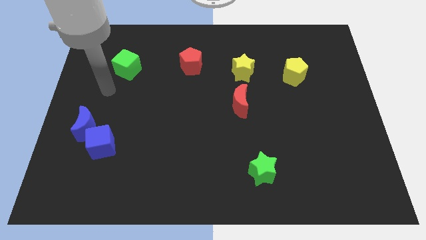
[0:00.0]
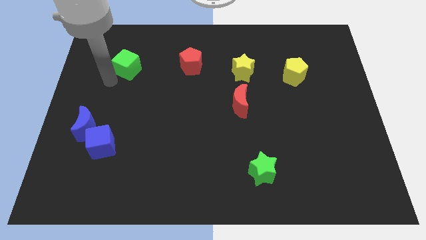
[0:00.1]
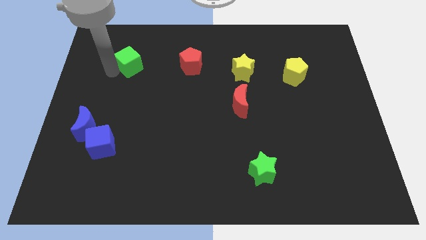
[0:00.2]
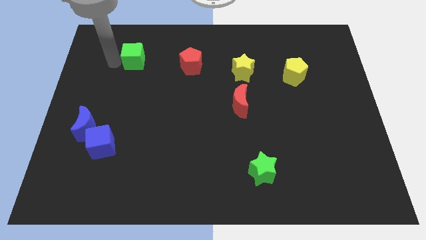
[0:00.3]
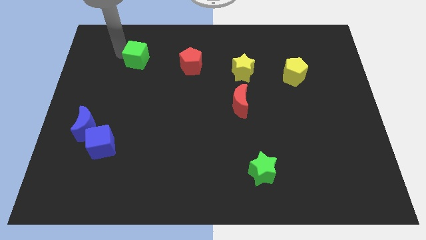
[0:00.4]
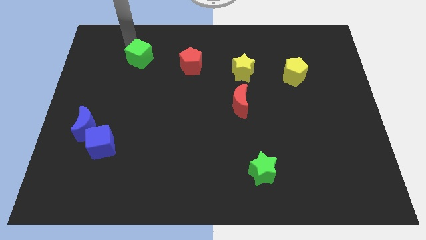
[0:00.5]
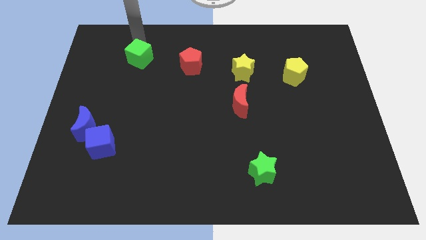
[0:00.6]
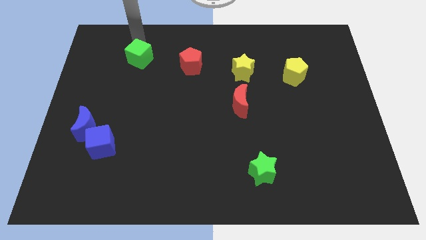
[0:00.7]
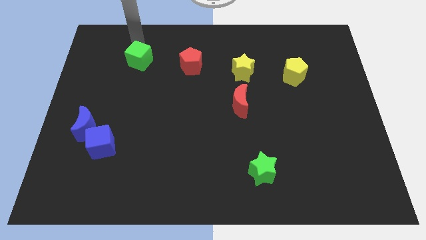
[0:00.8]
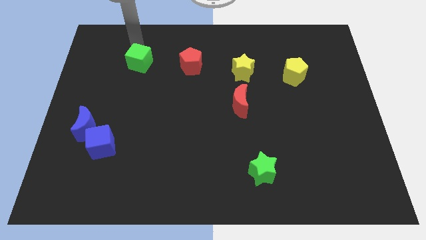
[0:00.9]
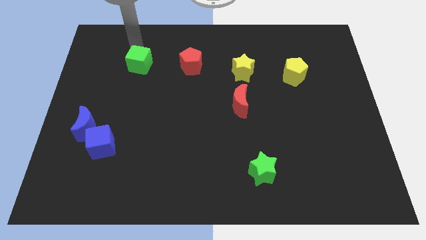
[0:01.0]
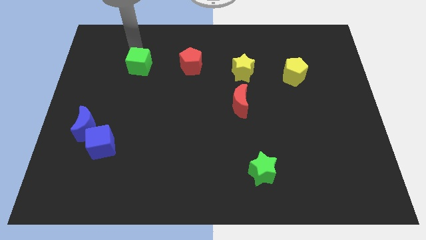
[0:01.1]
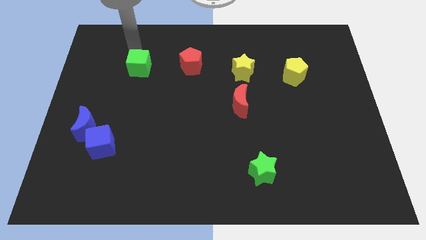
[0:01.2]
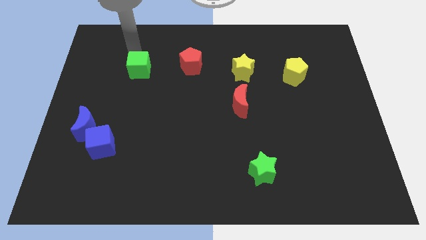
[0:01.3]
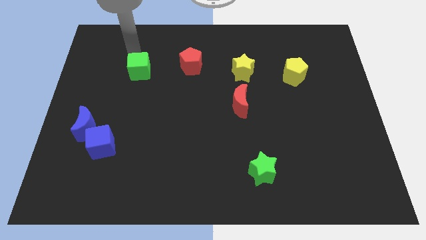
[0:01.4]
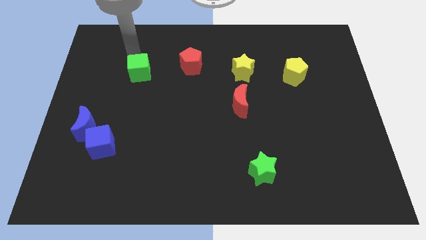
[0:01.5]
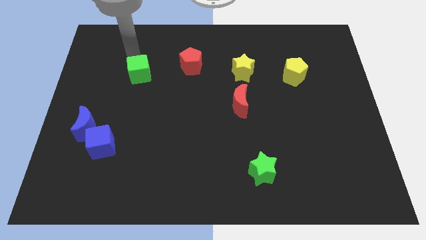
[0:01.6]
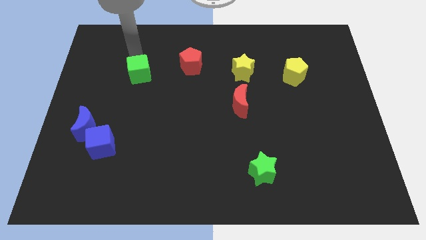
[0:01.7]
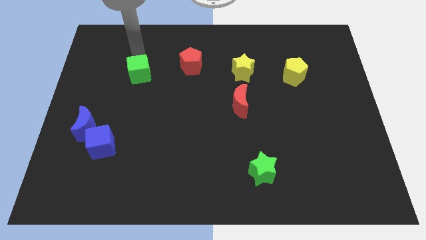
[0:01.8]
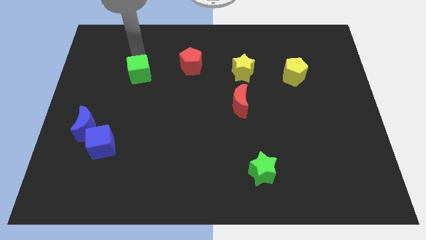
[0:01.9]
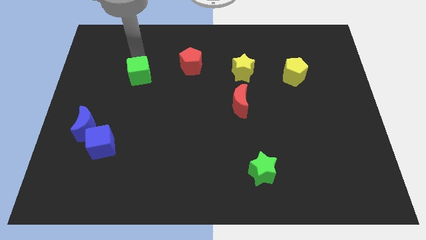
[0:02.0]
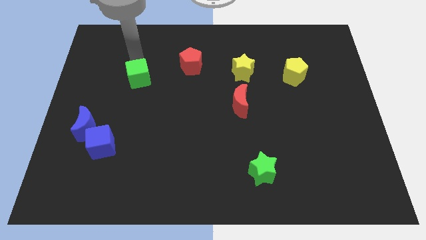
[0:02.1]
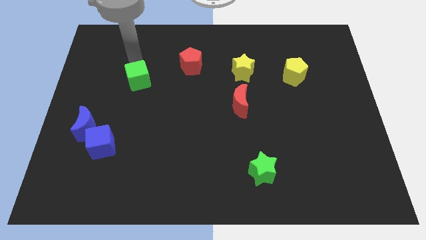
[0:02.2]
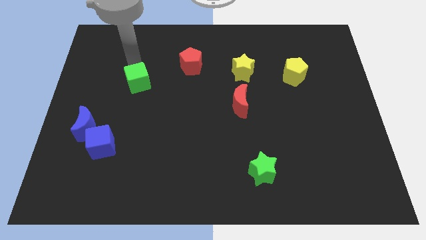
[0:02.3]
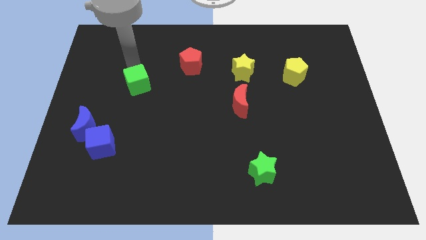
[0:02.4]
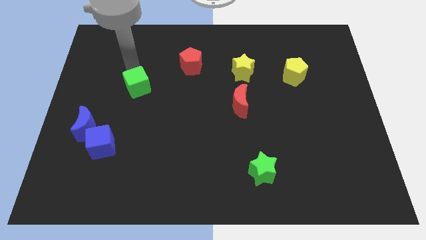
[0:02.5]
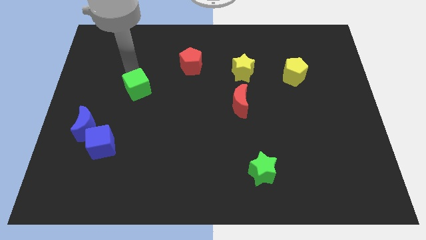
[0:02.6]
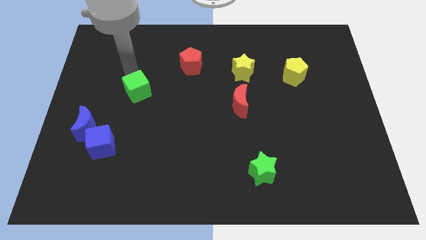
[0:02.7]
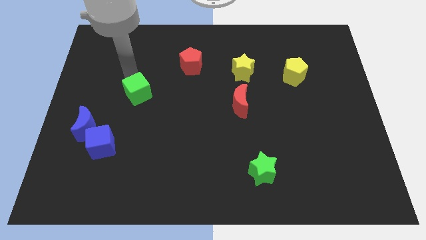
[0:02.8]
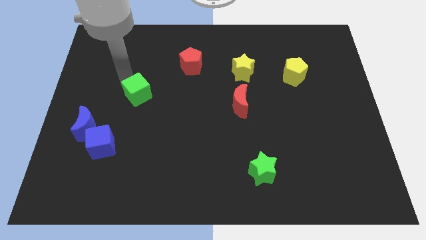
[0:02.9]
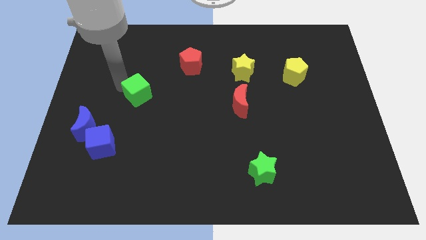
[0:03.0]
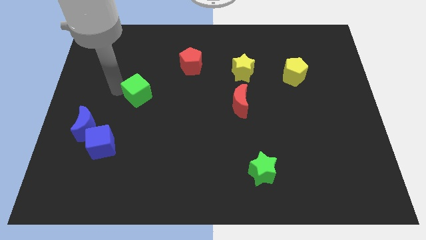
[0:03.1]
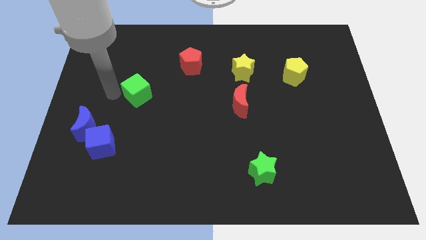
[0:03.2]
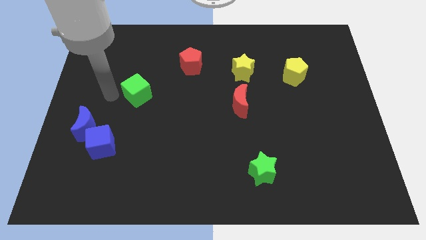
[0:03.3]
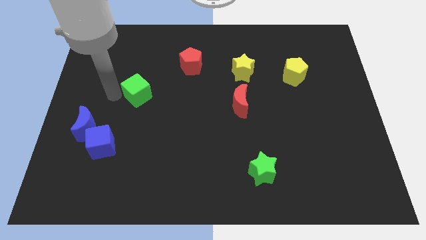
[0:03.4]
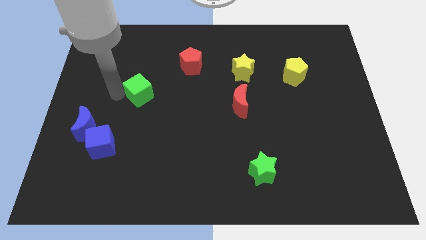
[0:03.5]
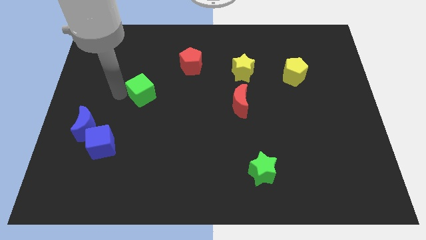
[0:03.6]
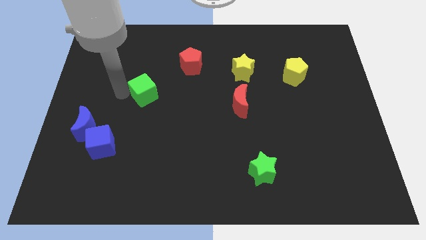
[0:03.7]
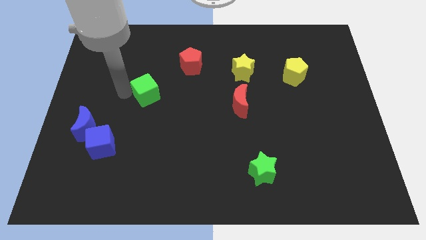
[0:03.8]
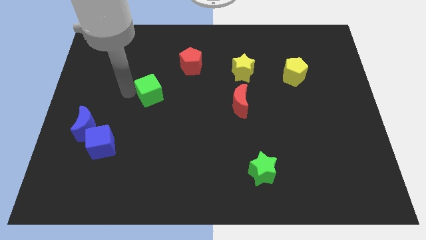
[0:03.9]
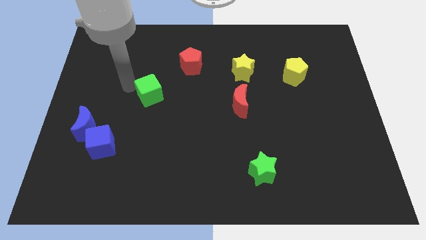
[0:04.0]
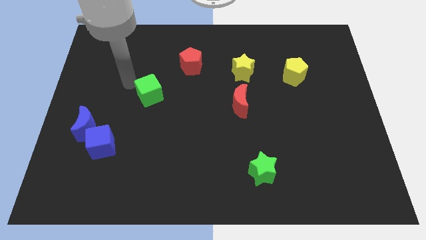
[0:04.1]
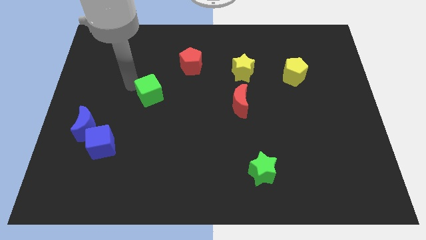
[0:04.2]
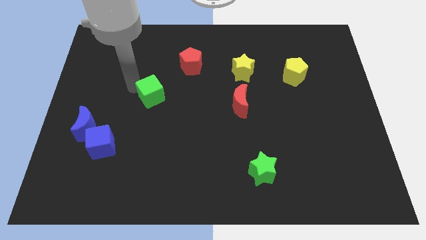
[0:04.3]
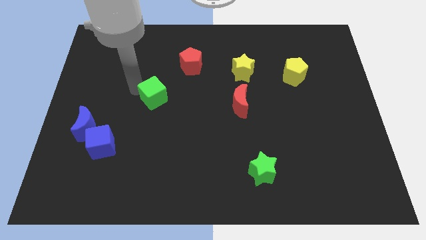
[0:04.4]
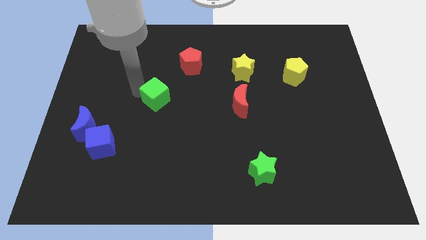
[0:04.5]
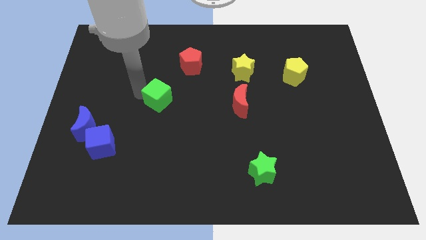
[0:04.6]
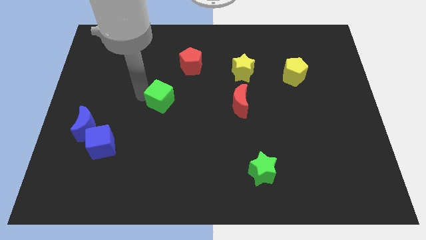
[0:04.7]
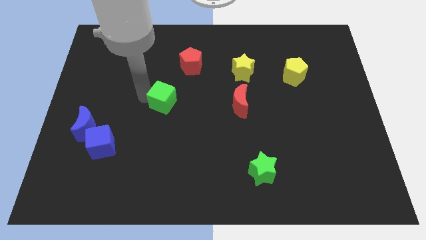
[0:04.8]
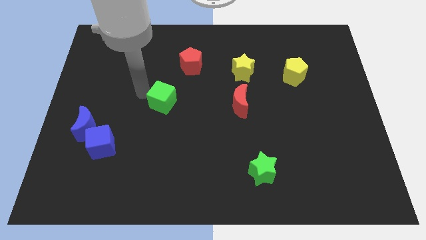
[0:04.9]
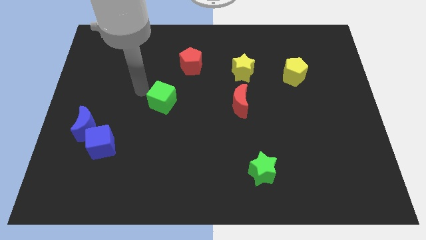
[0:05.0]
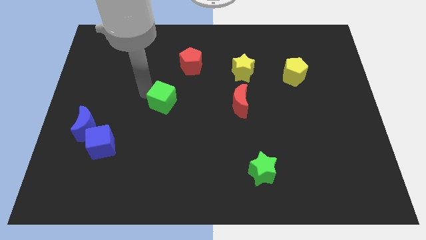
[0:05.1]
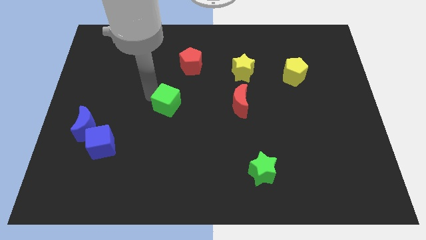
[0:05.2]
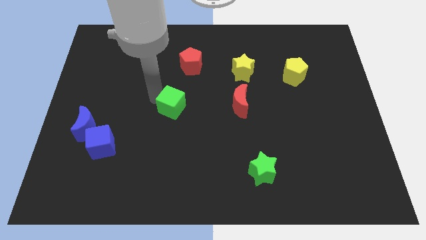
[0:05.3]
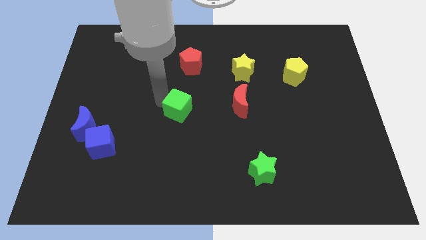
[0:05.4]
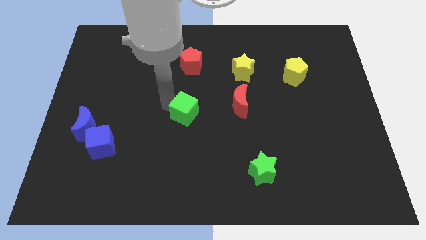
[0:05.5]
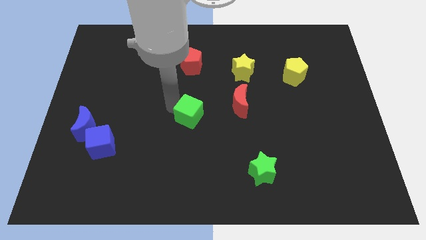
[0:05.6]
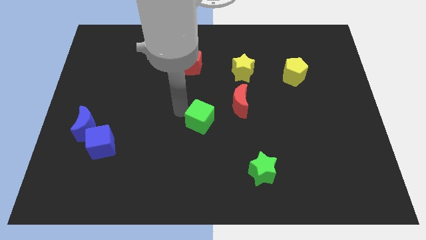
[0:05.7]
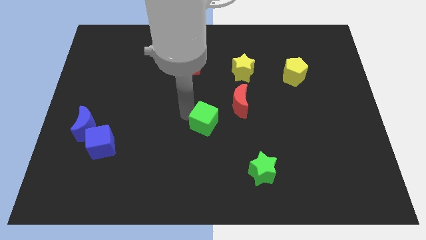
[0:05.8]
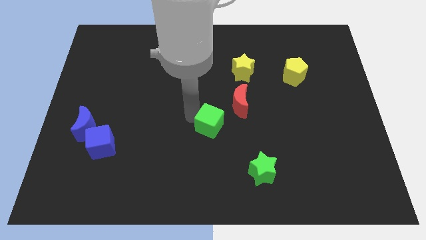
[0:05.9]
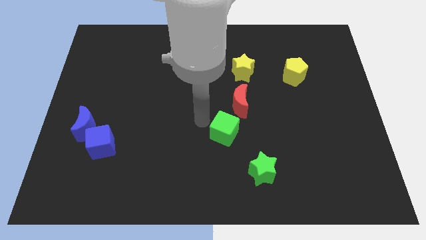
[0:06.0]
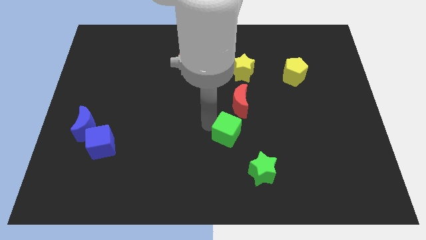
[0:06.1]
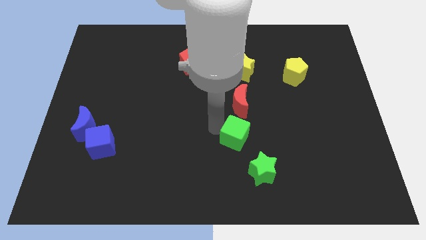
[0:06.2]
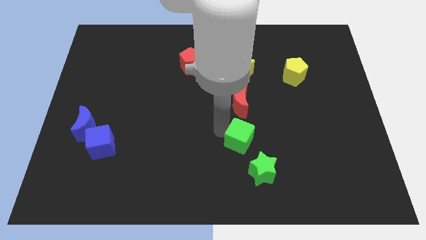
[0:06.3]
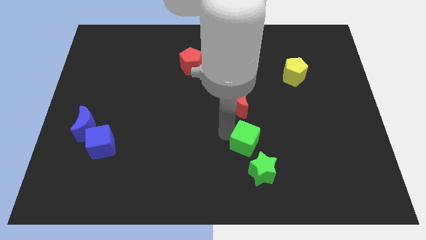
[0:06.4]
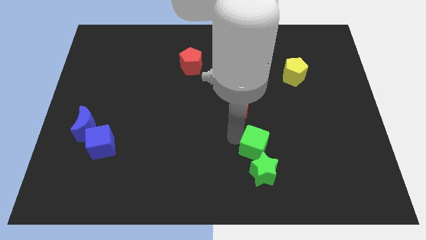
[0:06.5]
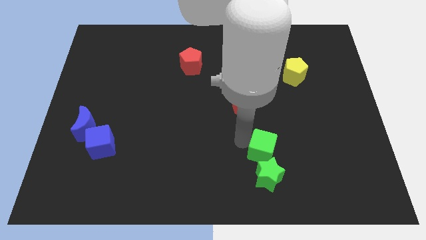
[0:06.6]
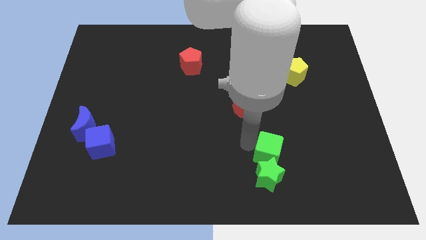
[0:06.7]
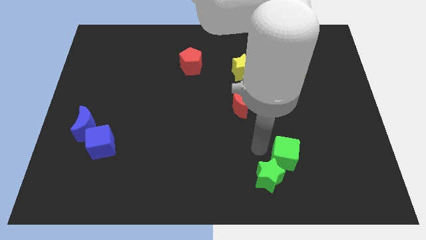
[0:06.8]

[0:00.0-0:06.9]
push the green cube to the right side of the green star

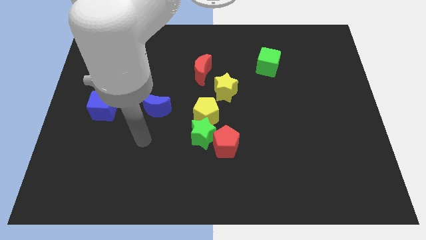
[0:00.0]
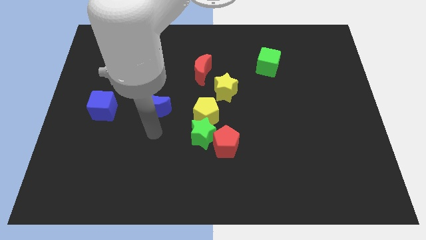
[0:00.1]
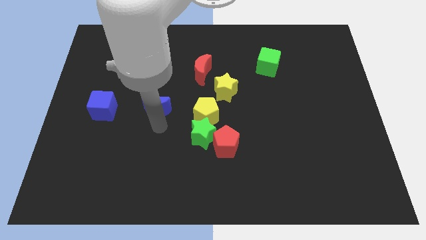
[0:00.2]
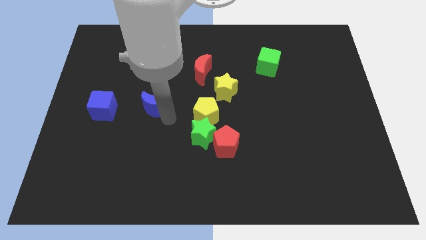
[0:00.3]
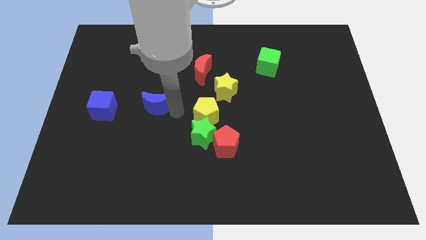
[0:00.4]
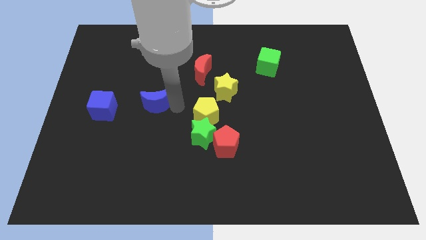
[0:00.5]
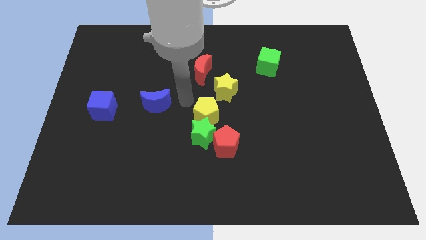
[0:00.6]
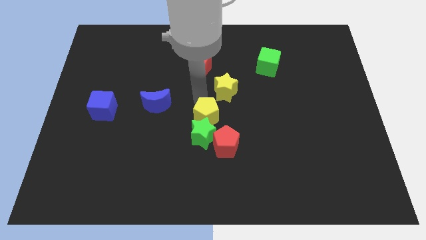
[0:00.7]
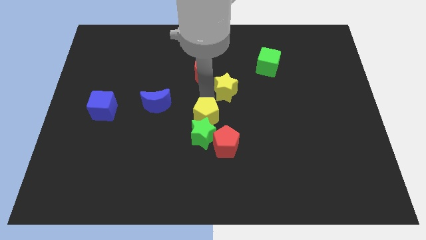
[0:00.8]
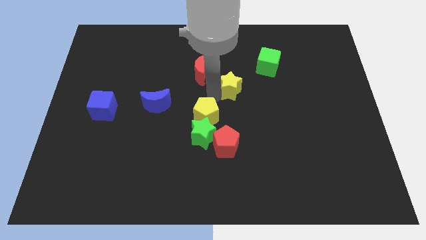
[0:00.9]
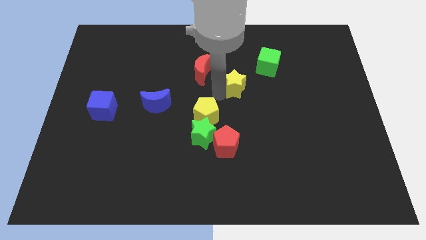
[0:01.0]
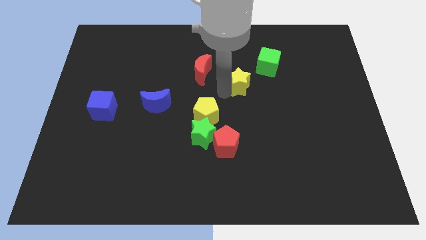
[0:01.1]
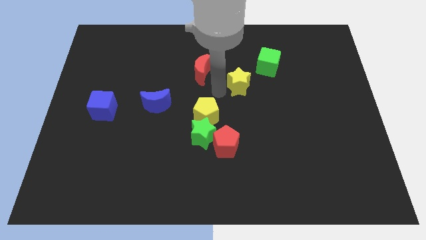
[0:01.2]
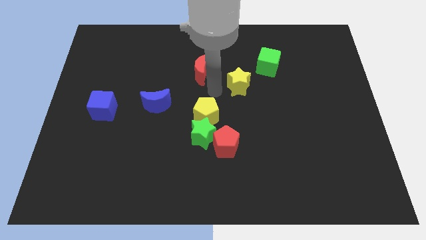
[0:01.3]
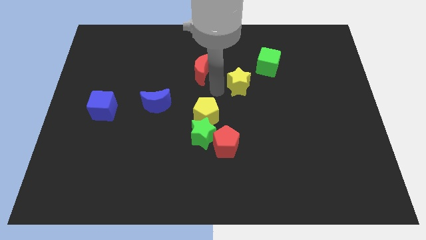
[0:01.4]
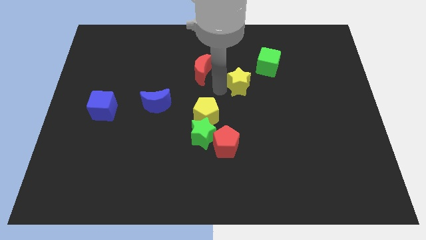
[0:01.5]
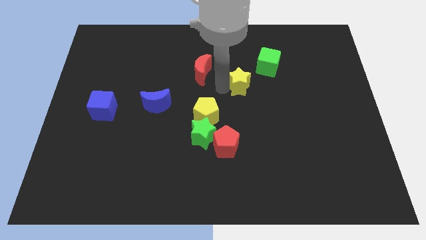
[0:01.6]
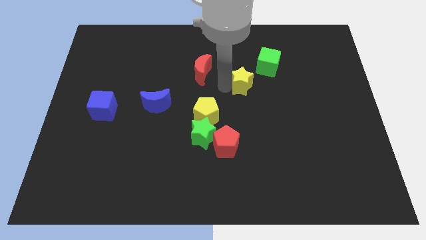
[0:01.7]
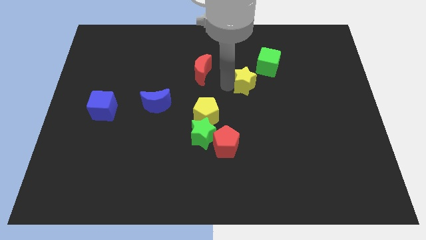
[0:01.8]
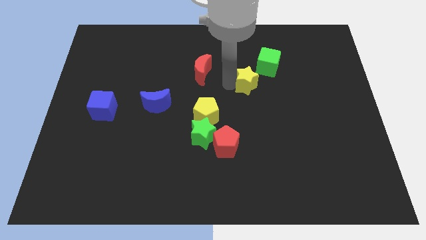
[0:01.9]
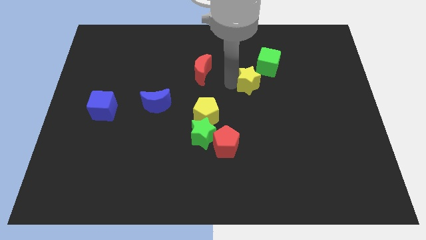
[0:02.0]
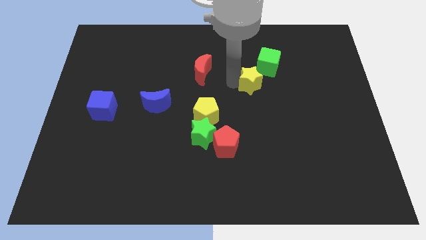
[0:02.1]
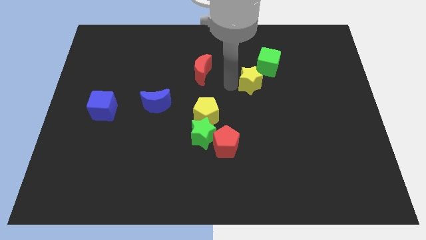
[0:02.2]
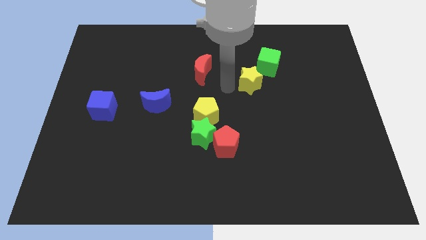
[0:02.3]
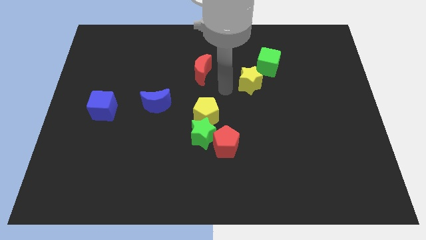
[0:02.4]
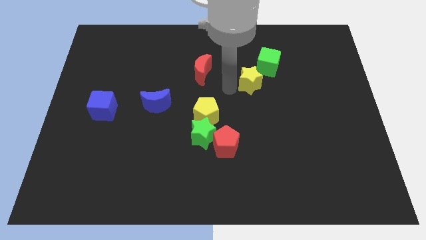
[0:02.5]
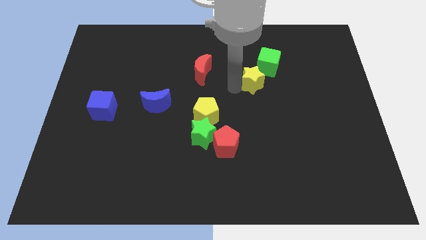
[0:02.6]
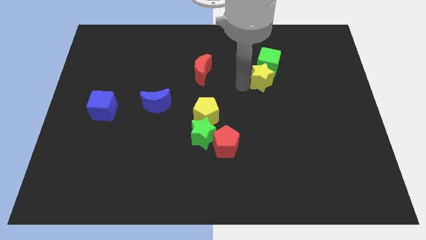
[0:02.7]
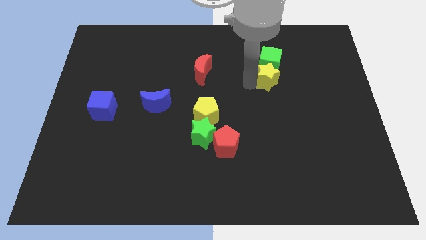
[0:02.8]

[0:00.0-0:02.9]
move the yellow star to the bottom right of the green cube
